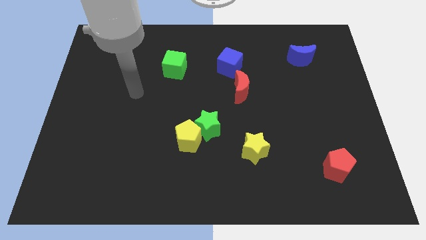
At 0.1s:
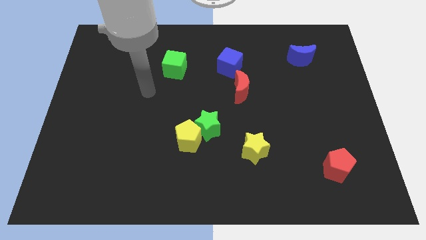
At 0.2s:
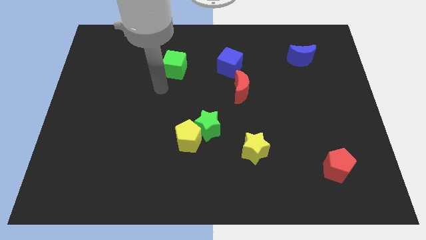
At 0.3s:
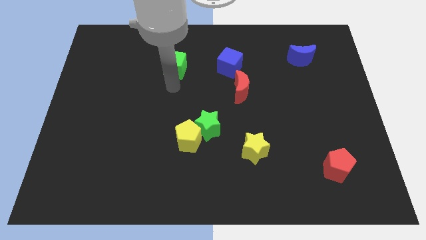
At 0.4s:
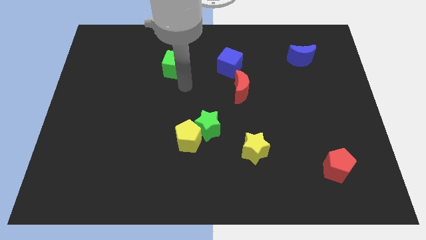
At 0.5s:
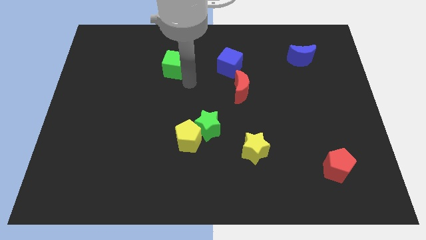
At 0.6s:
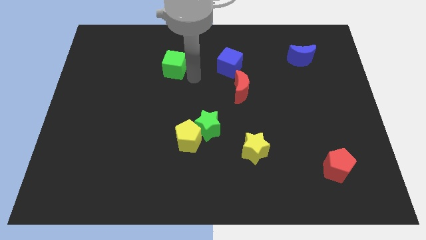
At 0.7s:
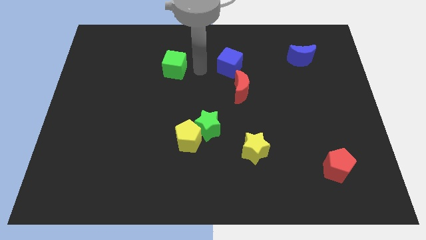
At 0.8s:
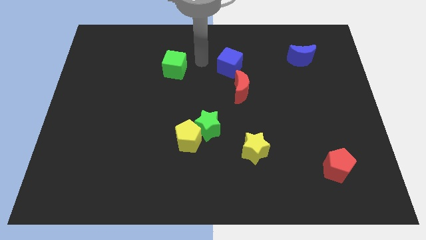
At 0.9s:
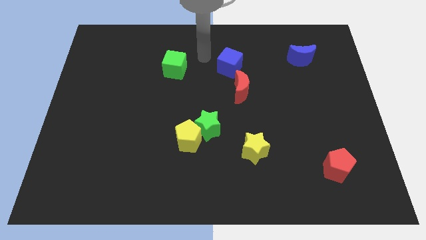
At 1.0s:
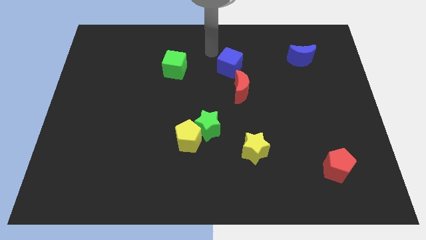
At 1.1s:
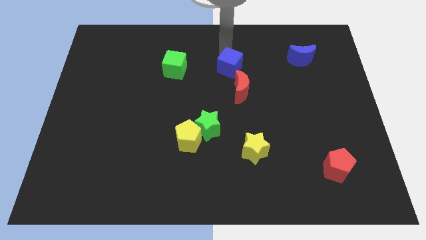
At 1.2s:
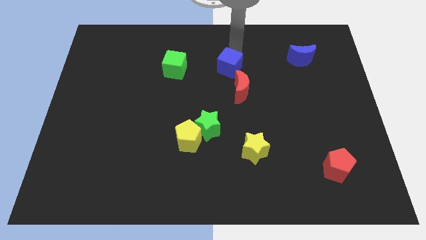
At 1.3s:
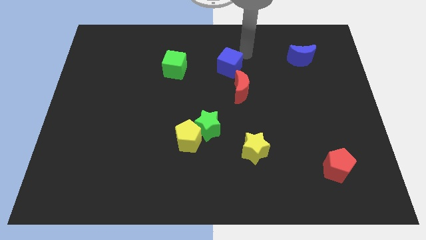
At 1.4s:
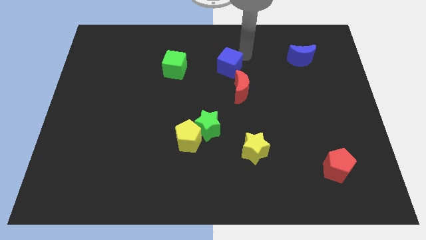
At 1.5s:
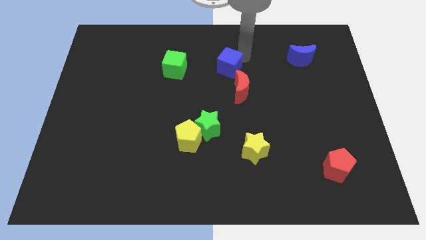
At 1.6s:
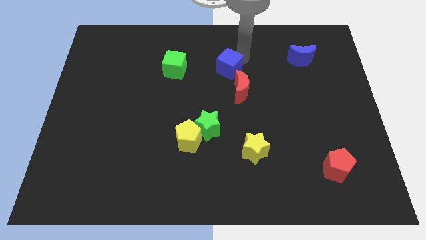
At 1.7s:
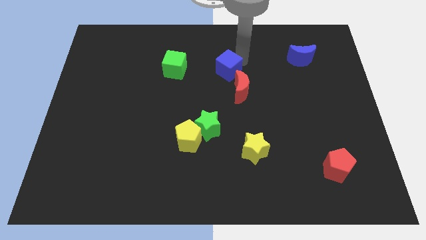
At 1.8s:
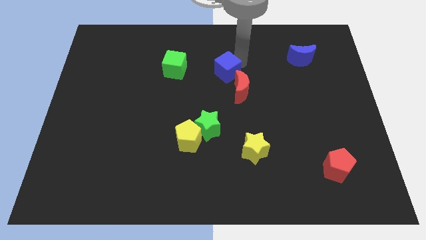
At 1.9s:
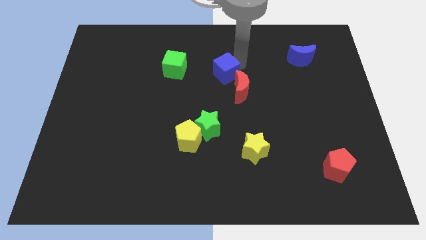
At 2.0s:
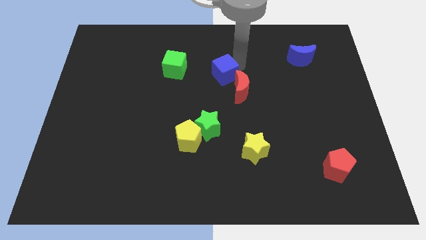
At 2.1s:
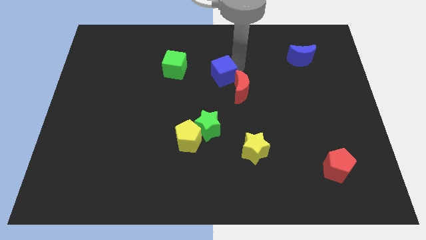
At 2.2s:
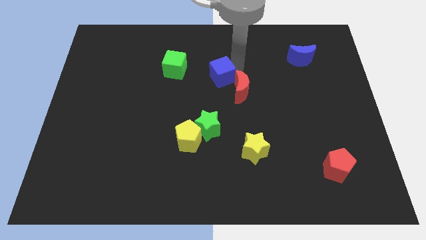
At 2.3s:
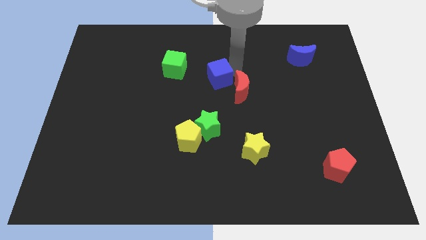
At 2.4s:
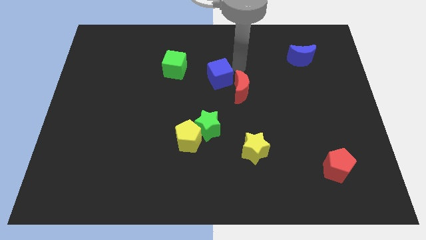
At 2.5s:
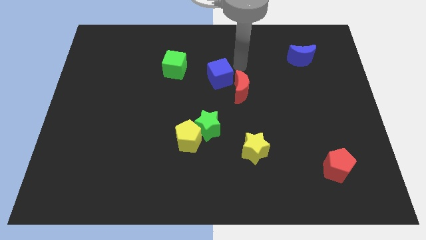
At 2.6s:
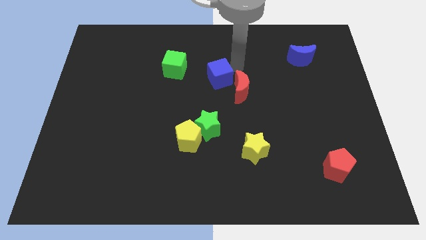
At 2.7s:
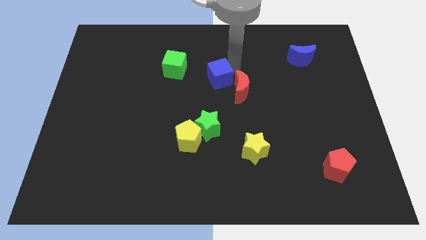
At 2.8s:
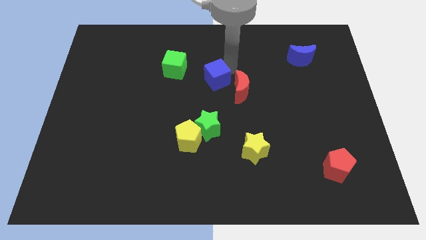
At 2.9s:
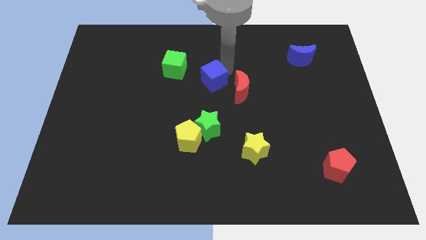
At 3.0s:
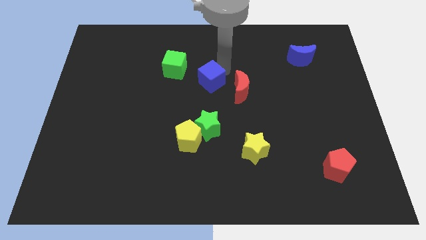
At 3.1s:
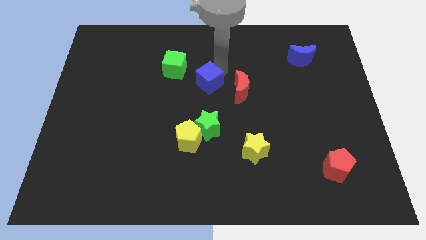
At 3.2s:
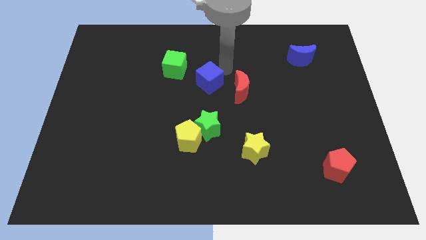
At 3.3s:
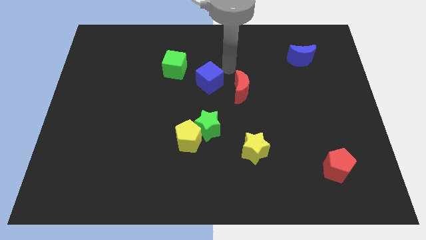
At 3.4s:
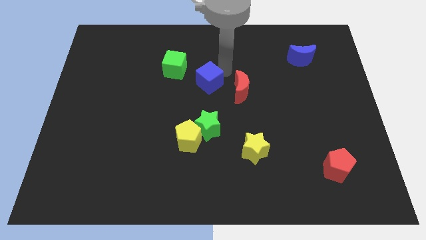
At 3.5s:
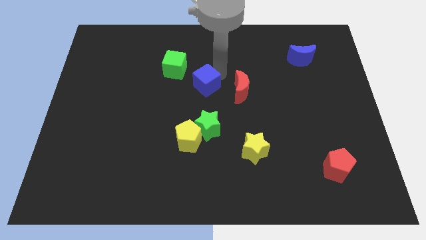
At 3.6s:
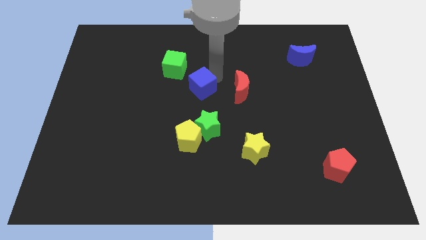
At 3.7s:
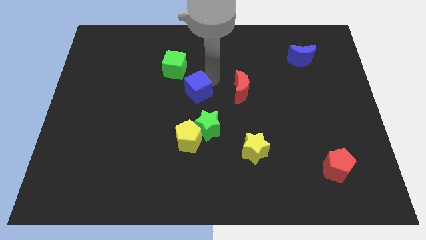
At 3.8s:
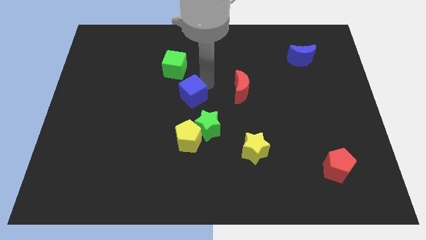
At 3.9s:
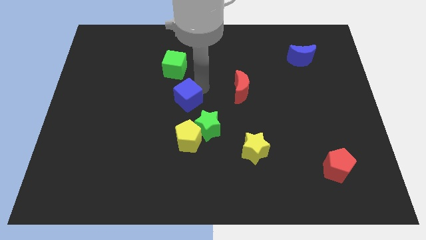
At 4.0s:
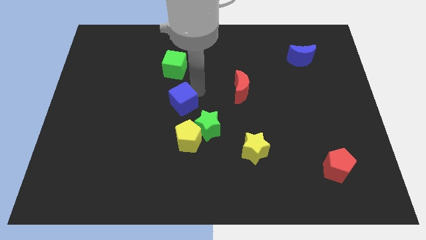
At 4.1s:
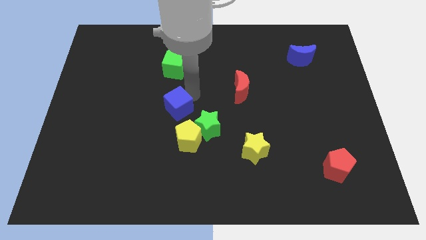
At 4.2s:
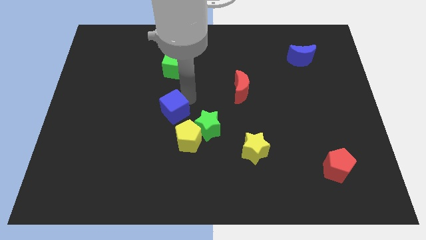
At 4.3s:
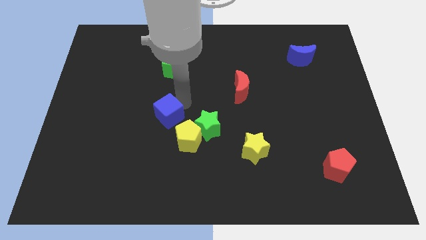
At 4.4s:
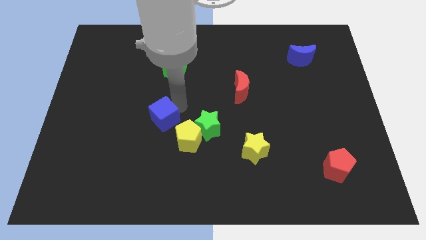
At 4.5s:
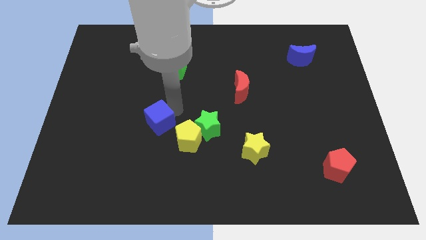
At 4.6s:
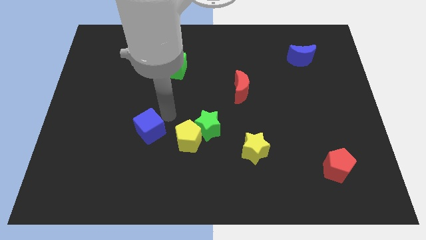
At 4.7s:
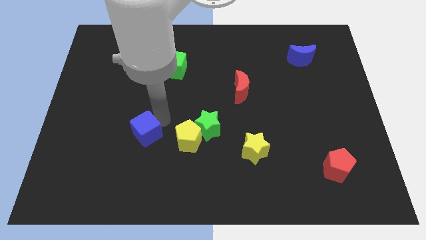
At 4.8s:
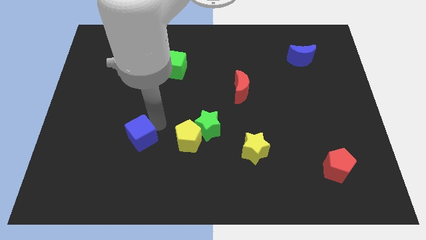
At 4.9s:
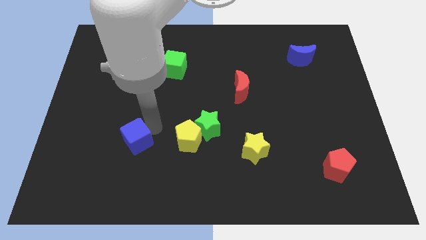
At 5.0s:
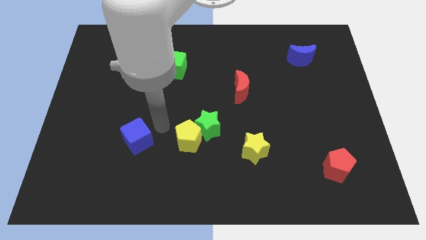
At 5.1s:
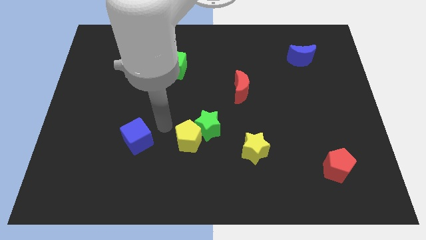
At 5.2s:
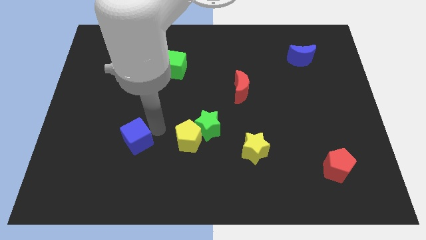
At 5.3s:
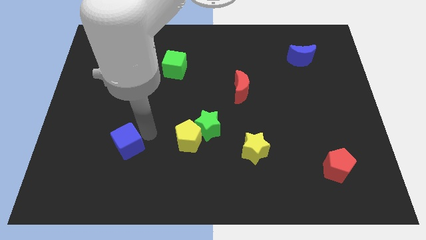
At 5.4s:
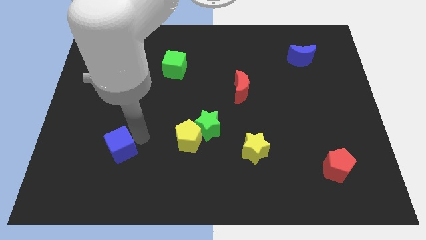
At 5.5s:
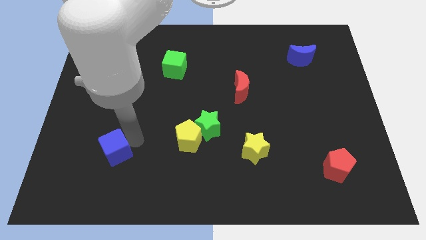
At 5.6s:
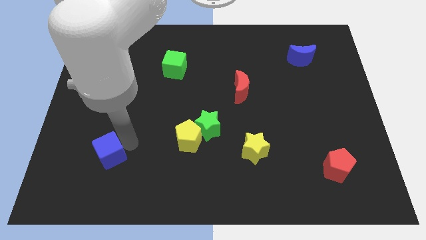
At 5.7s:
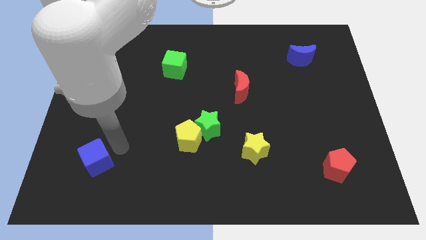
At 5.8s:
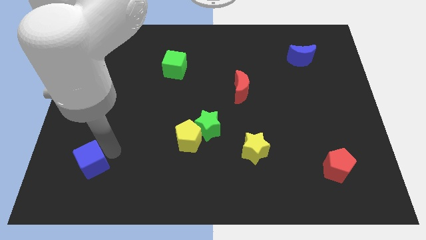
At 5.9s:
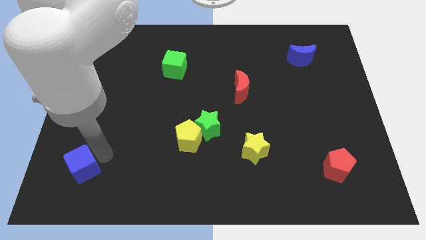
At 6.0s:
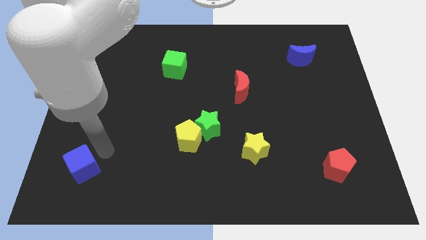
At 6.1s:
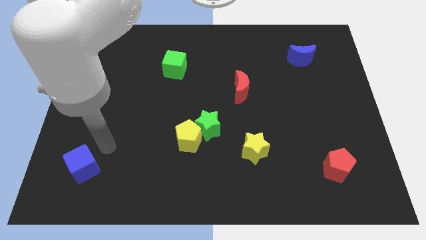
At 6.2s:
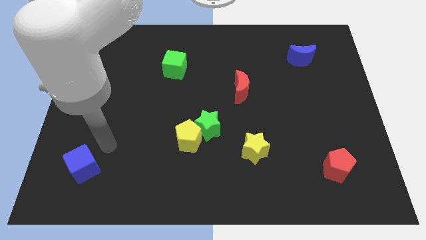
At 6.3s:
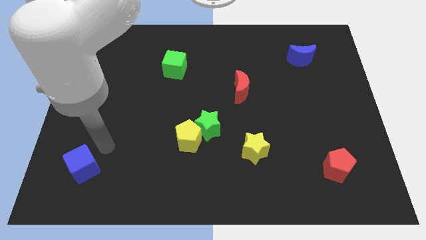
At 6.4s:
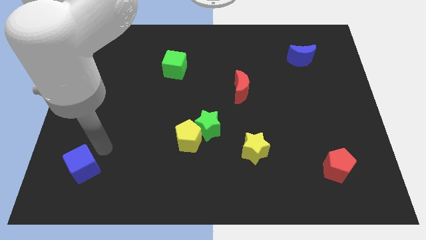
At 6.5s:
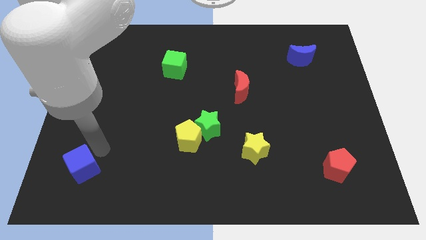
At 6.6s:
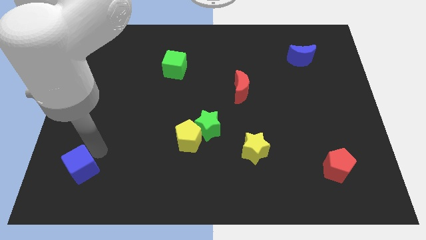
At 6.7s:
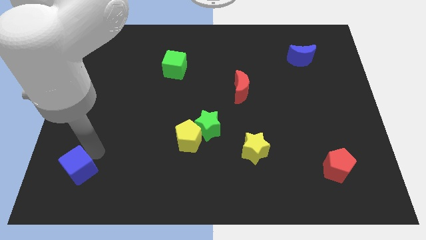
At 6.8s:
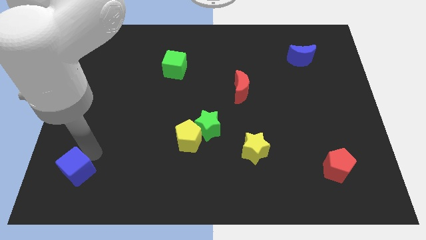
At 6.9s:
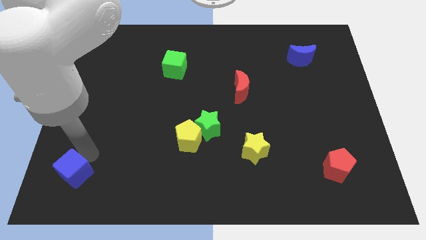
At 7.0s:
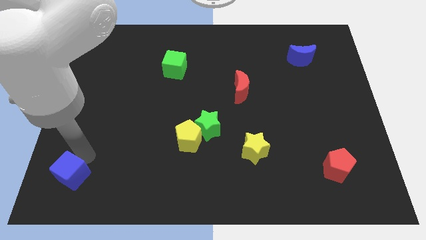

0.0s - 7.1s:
push the blue cube to the lower left corner
